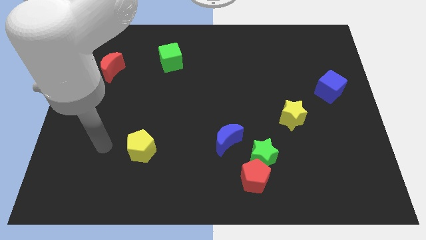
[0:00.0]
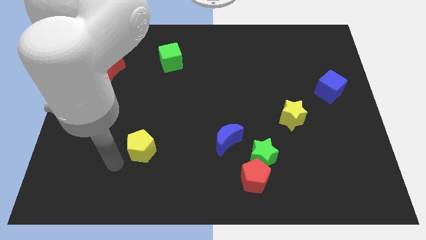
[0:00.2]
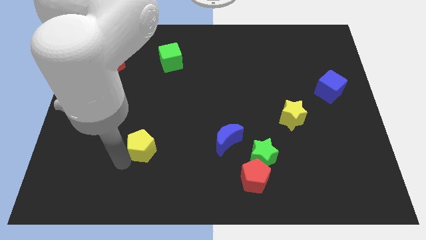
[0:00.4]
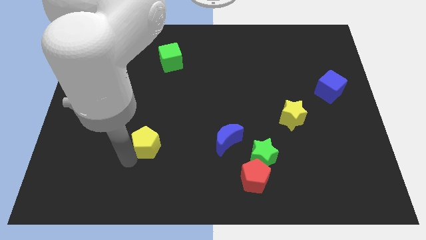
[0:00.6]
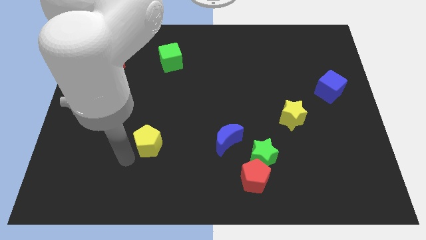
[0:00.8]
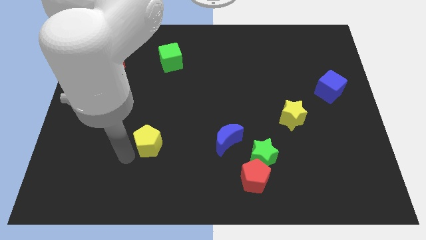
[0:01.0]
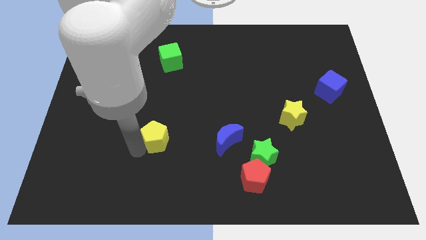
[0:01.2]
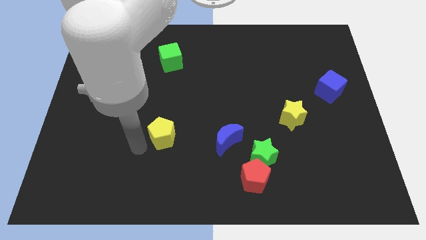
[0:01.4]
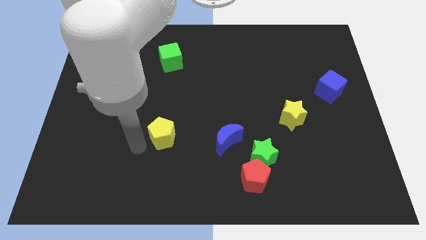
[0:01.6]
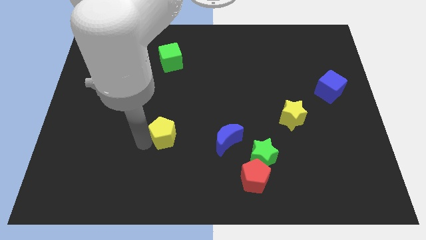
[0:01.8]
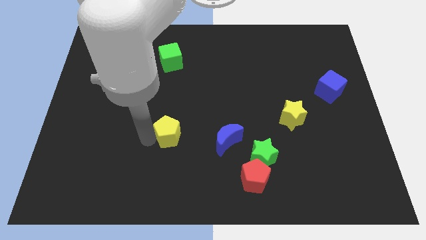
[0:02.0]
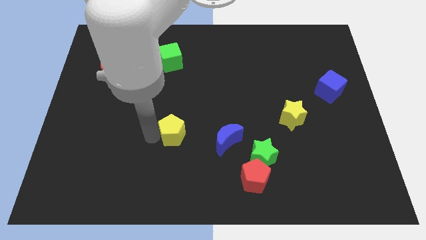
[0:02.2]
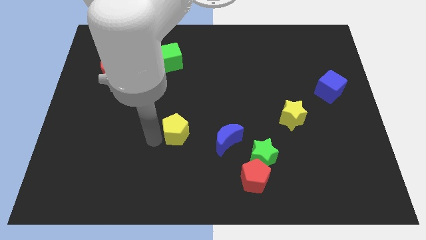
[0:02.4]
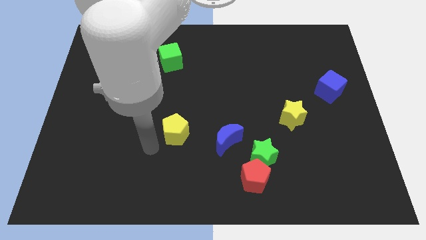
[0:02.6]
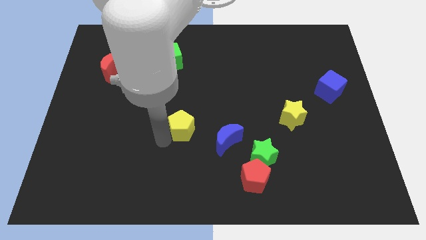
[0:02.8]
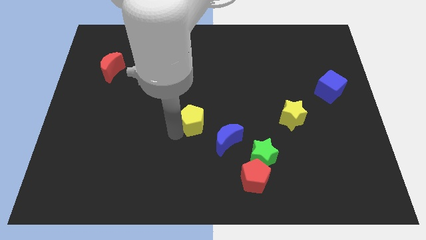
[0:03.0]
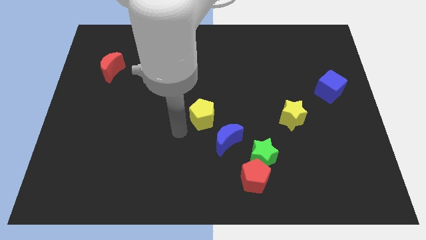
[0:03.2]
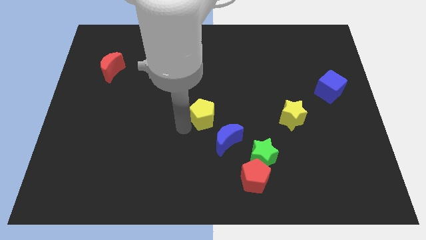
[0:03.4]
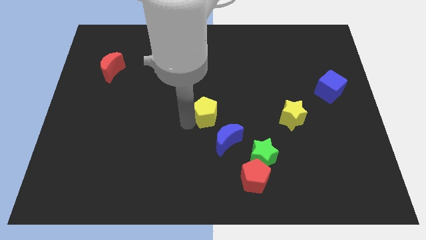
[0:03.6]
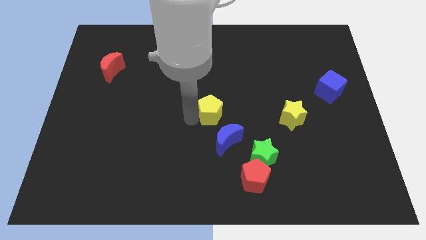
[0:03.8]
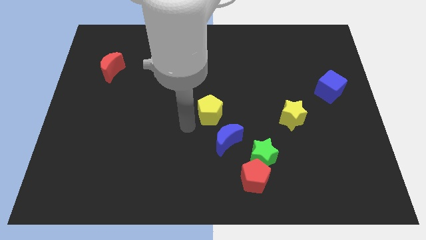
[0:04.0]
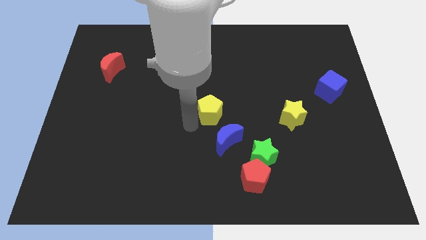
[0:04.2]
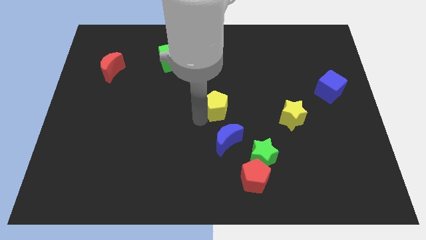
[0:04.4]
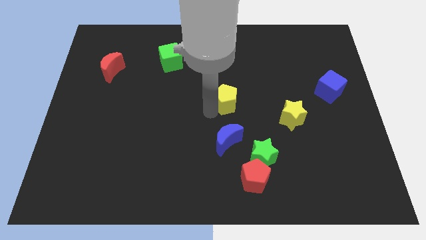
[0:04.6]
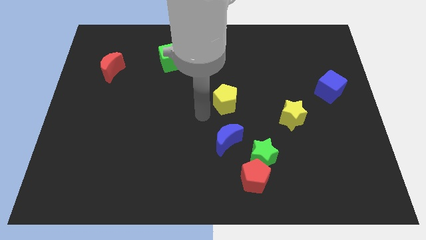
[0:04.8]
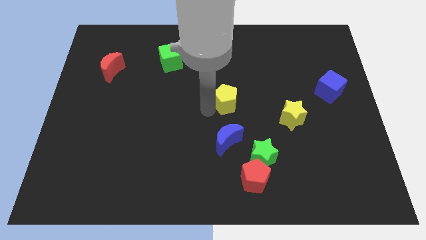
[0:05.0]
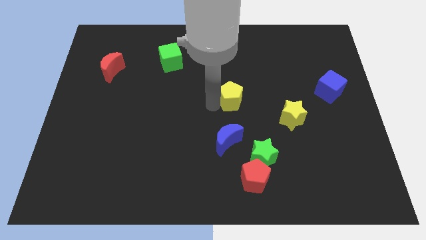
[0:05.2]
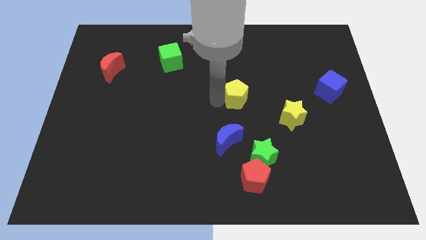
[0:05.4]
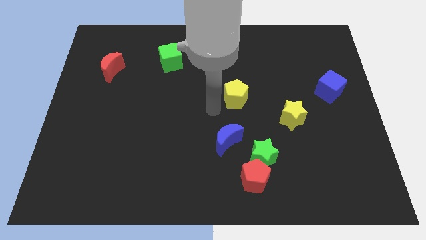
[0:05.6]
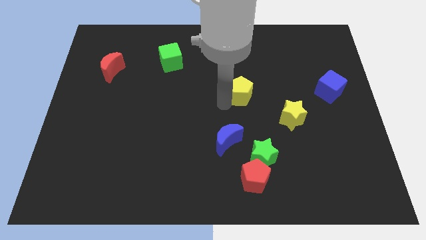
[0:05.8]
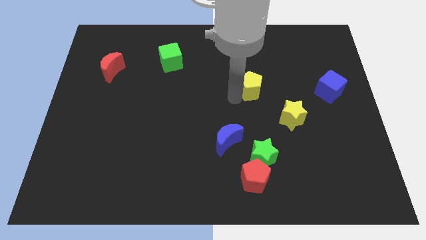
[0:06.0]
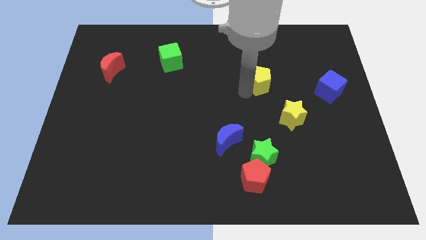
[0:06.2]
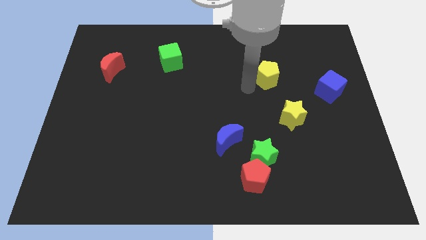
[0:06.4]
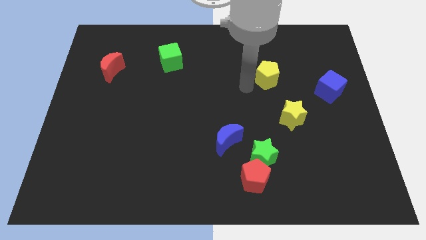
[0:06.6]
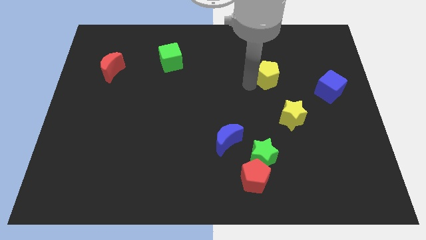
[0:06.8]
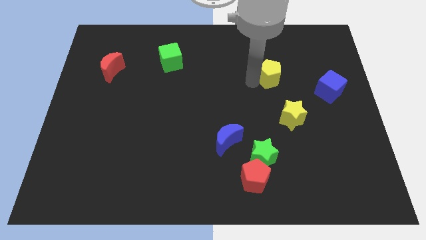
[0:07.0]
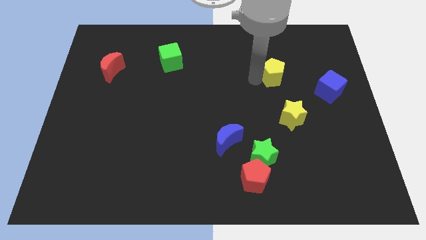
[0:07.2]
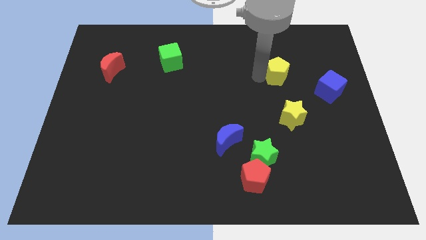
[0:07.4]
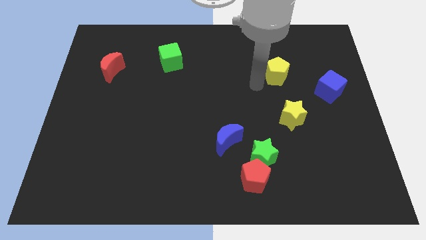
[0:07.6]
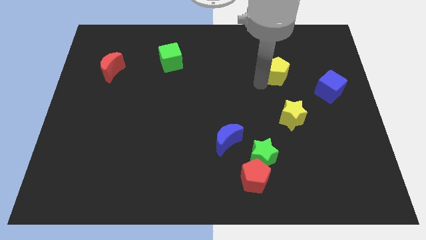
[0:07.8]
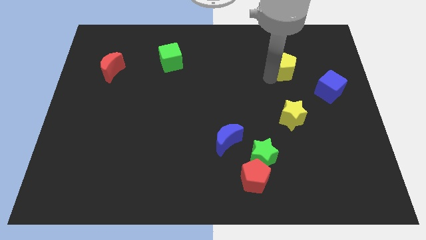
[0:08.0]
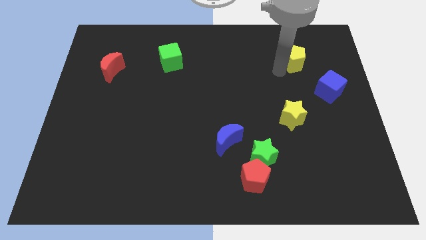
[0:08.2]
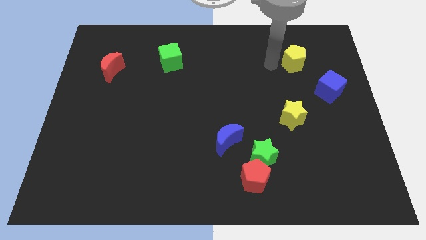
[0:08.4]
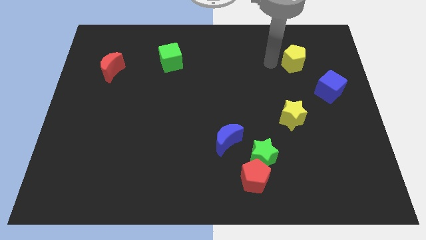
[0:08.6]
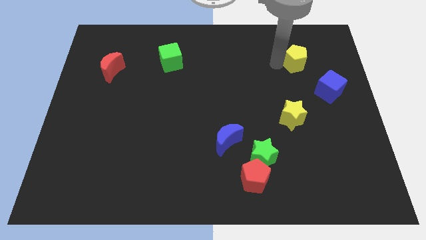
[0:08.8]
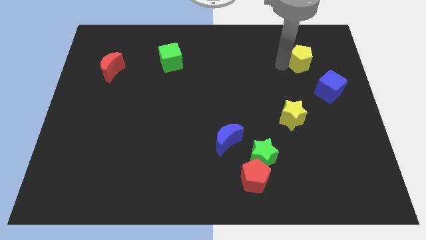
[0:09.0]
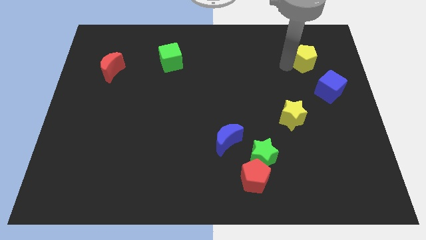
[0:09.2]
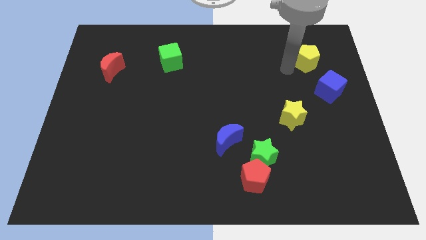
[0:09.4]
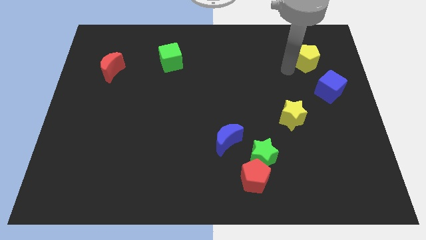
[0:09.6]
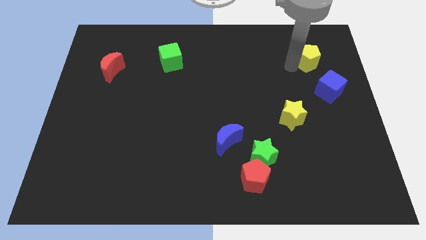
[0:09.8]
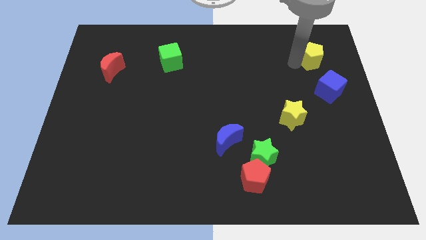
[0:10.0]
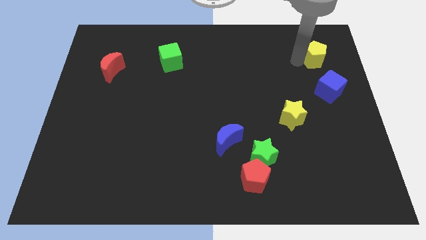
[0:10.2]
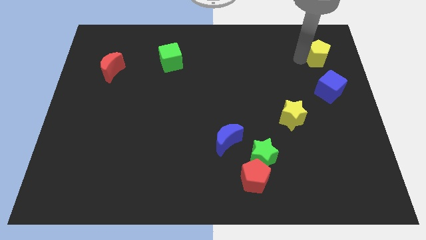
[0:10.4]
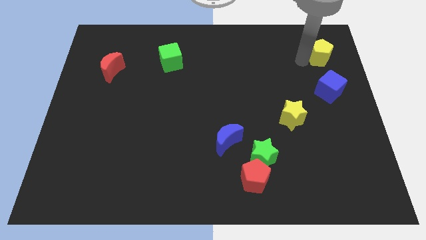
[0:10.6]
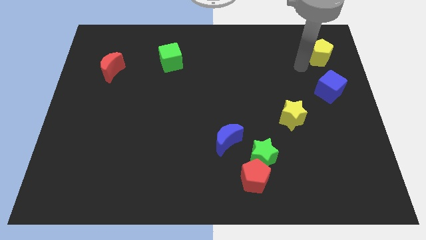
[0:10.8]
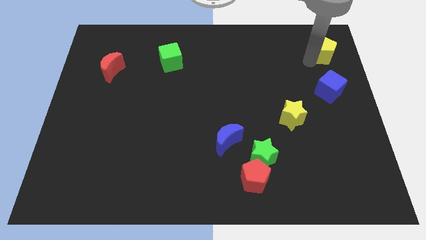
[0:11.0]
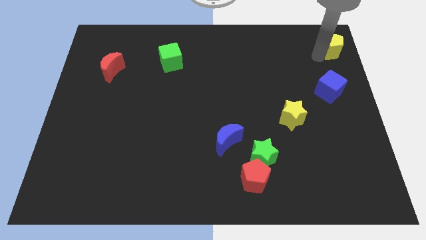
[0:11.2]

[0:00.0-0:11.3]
push the yellow pentagon to the top right of the board

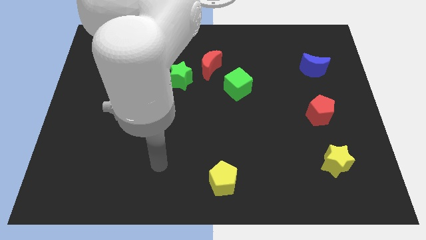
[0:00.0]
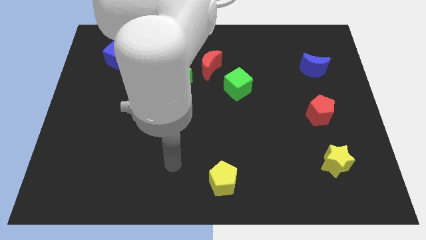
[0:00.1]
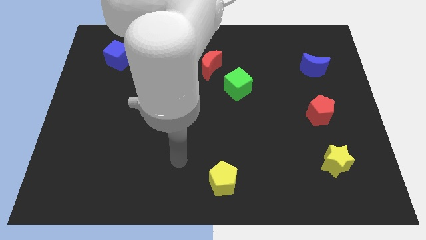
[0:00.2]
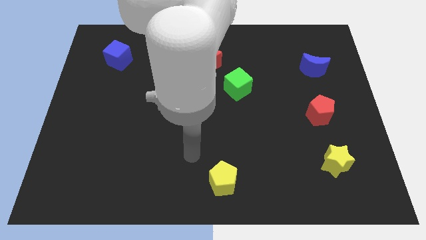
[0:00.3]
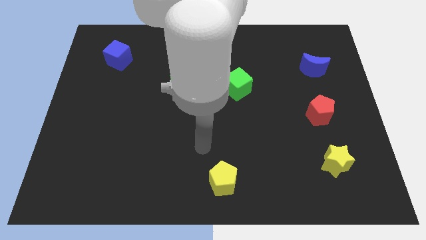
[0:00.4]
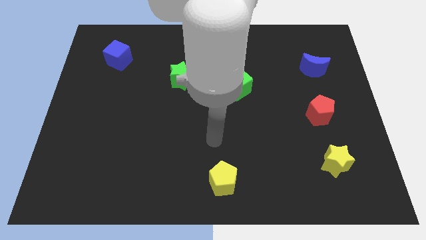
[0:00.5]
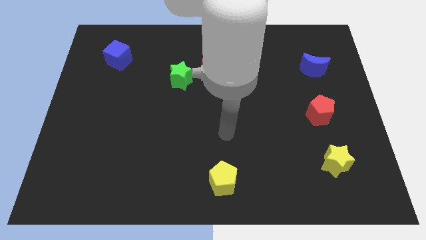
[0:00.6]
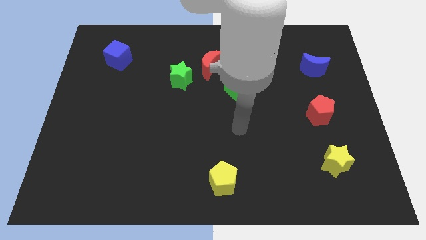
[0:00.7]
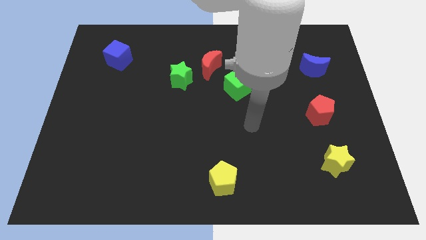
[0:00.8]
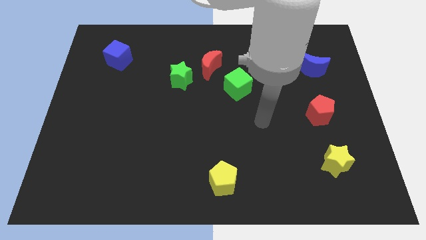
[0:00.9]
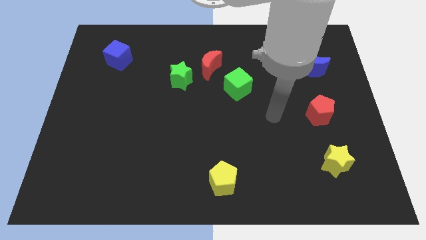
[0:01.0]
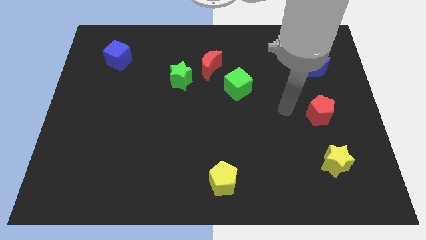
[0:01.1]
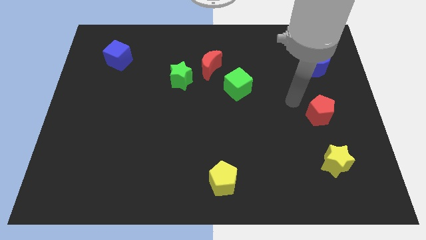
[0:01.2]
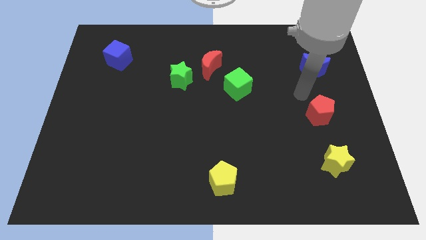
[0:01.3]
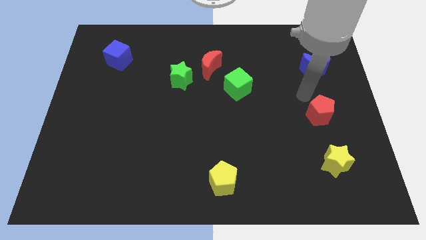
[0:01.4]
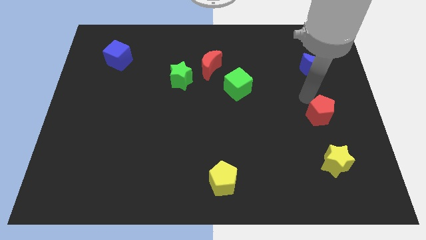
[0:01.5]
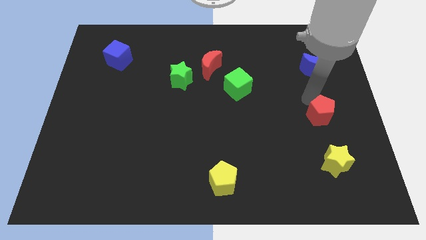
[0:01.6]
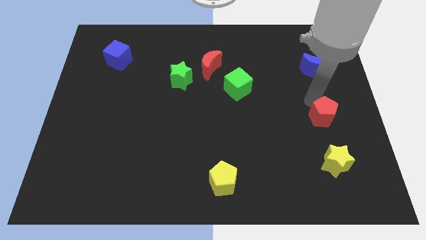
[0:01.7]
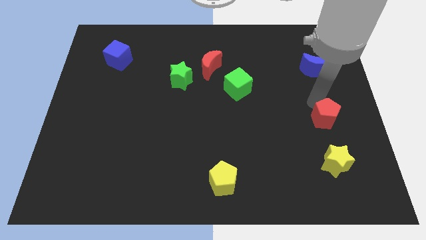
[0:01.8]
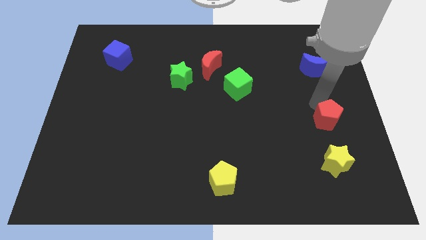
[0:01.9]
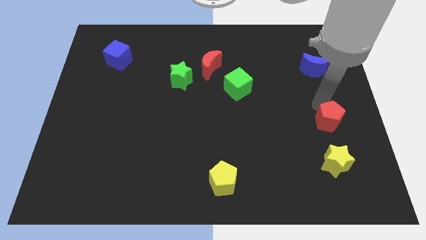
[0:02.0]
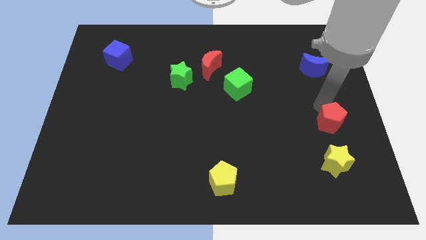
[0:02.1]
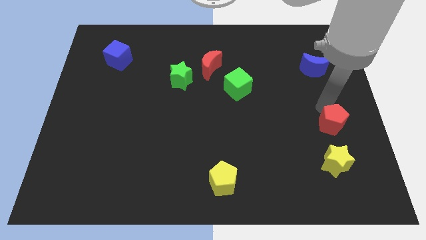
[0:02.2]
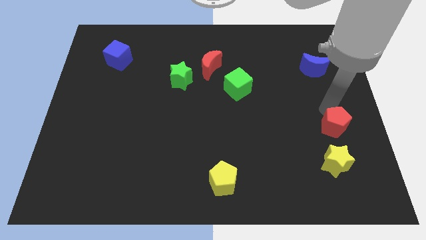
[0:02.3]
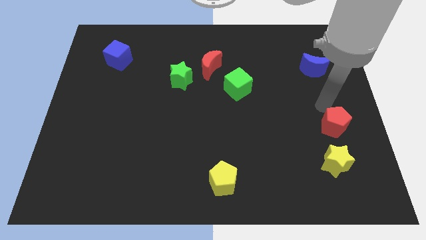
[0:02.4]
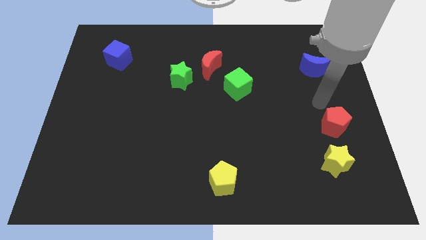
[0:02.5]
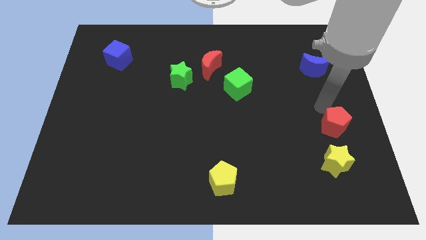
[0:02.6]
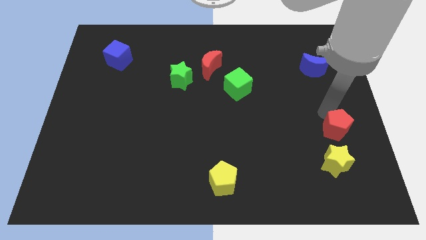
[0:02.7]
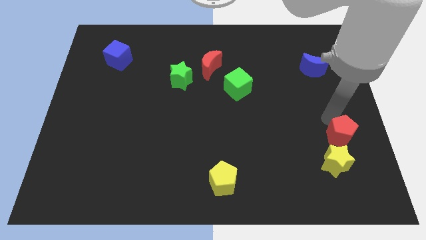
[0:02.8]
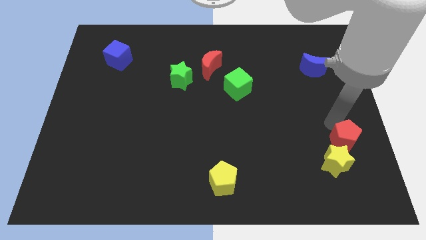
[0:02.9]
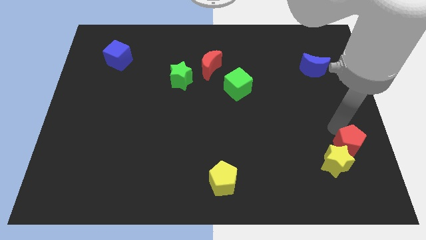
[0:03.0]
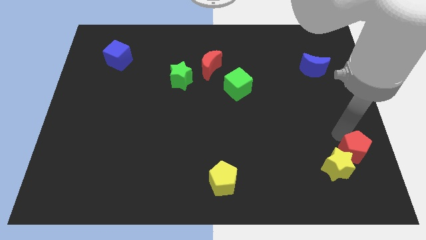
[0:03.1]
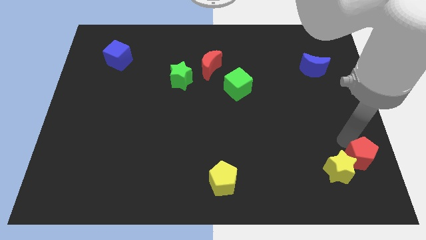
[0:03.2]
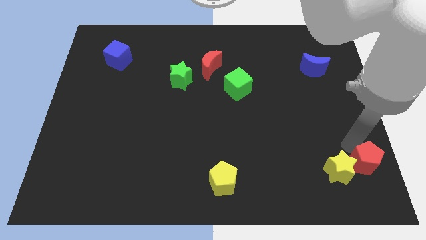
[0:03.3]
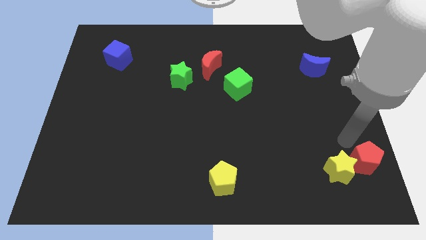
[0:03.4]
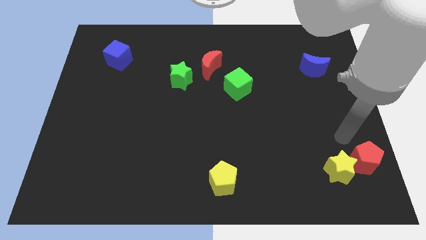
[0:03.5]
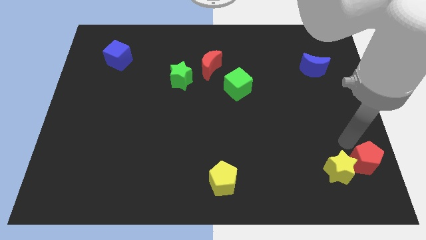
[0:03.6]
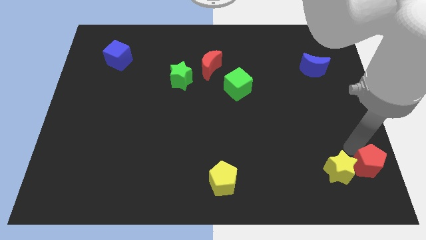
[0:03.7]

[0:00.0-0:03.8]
slide the red pentagon to the bottom right corner
